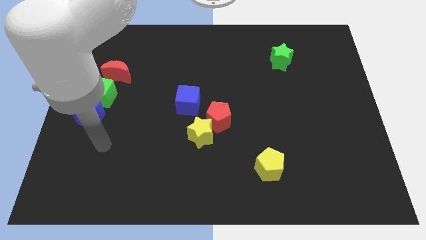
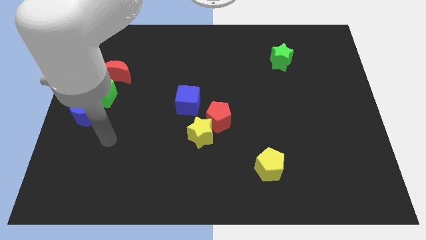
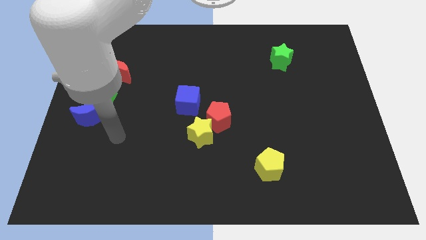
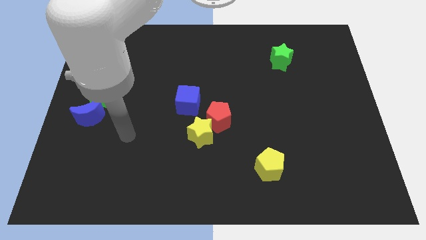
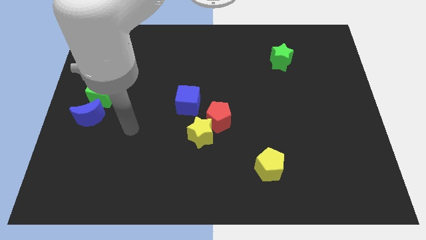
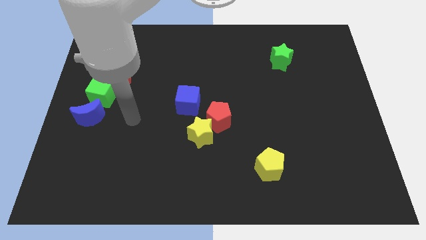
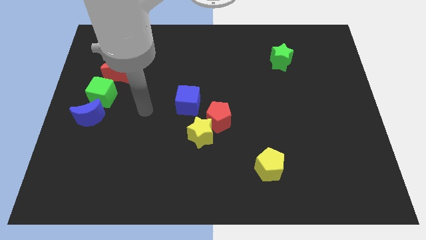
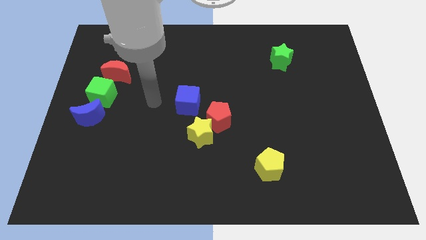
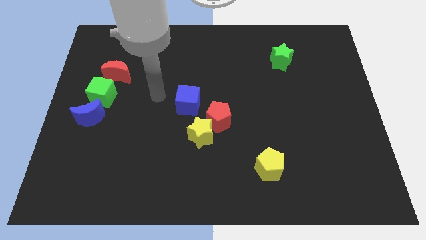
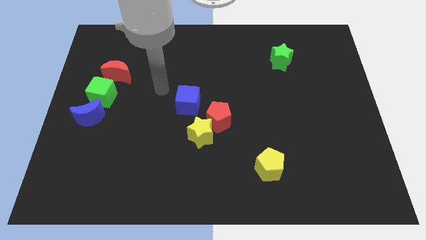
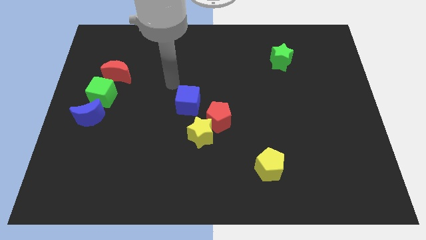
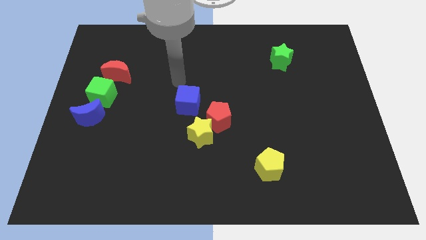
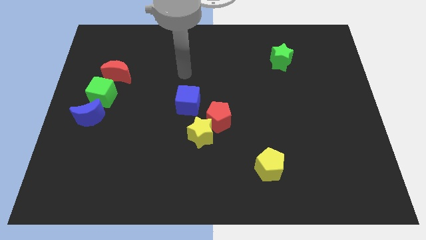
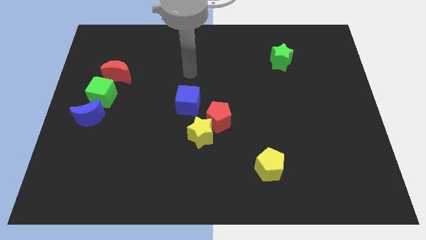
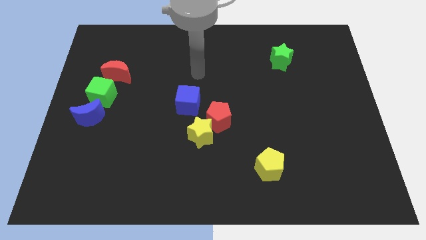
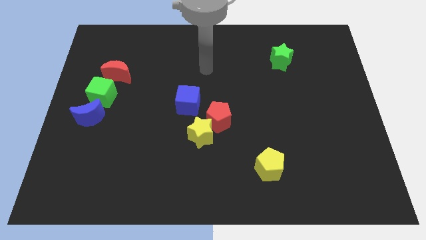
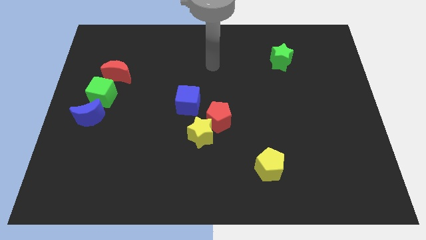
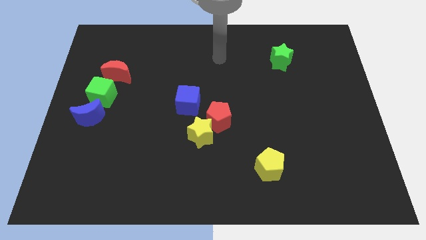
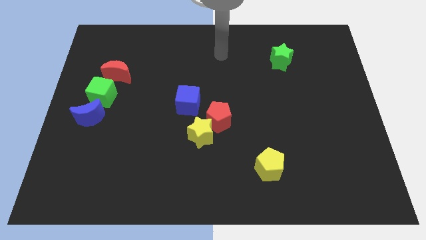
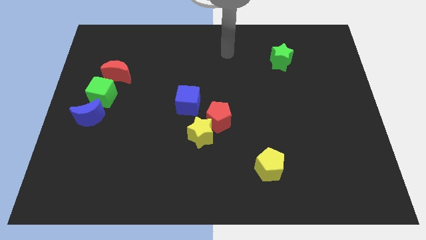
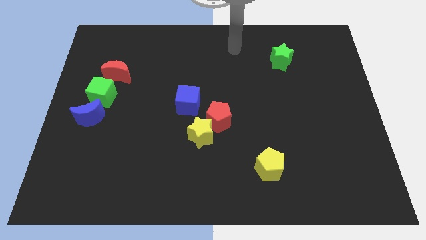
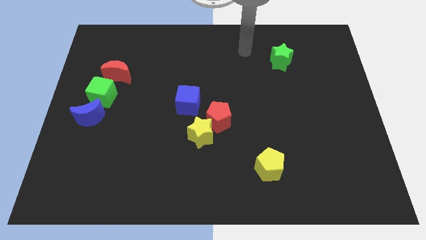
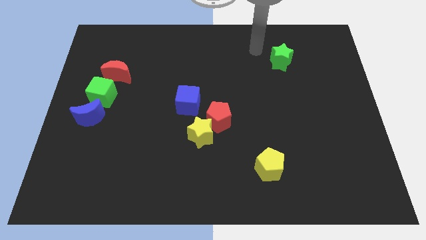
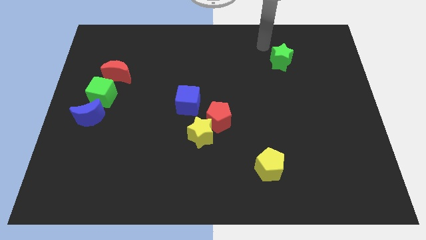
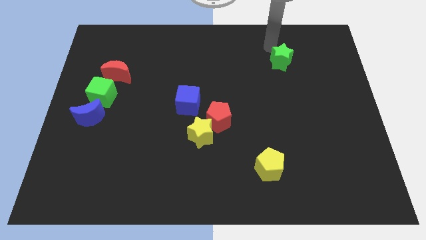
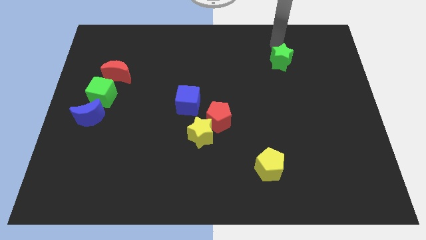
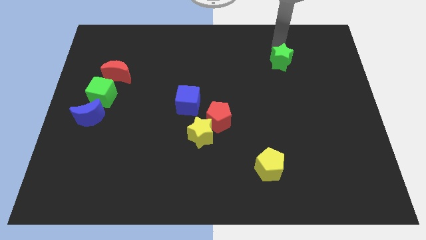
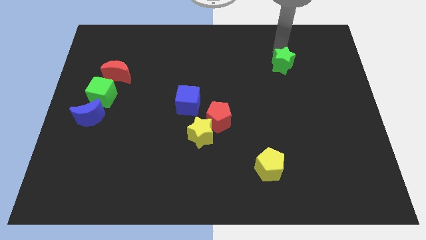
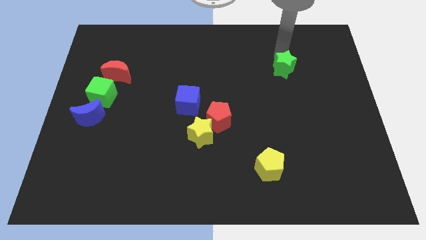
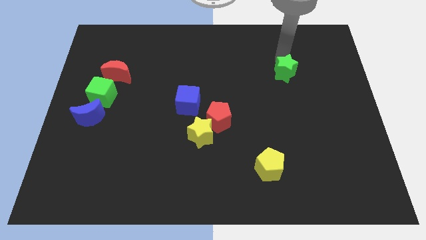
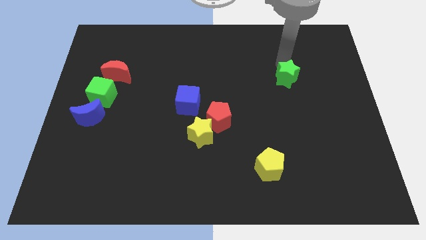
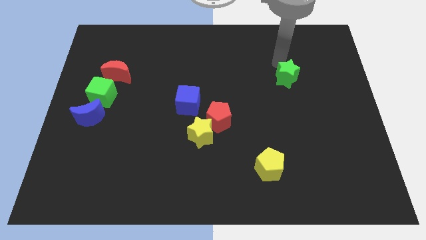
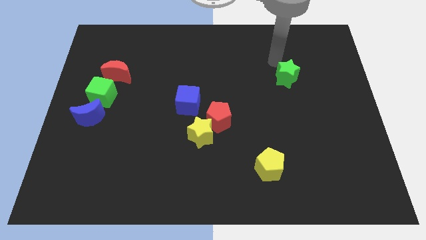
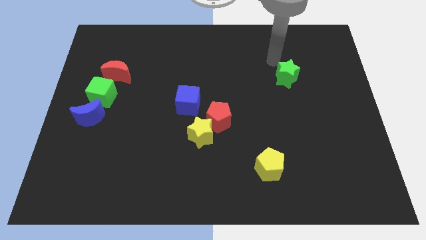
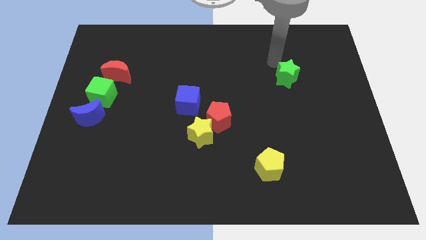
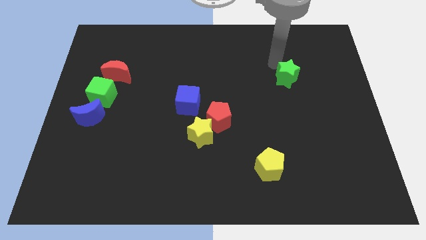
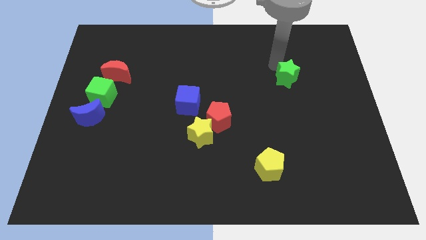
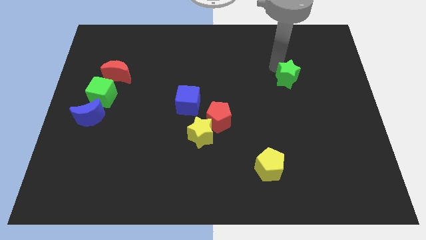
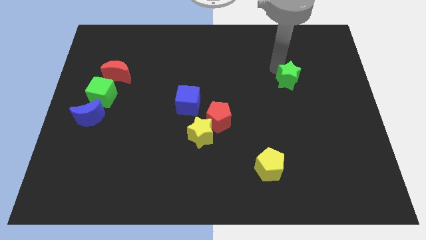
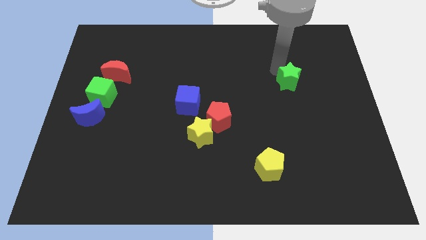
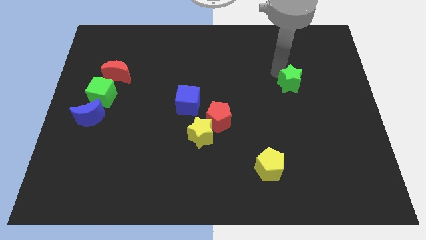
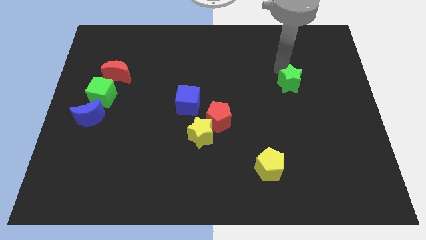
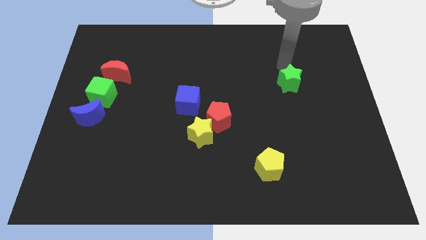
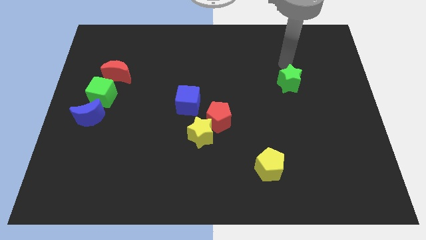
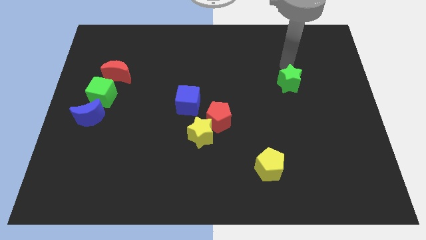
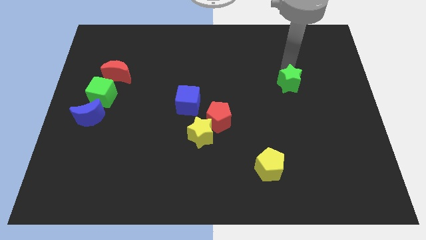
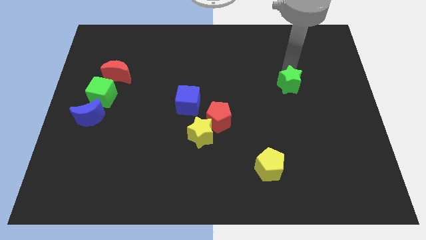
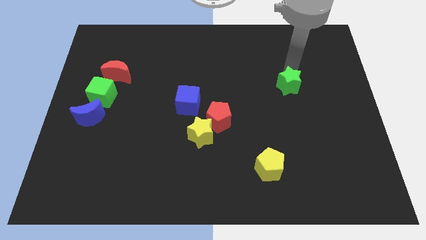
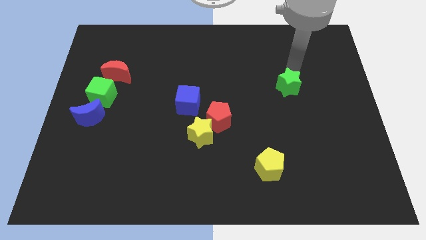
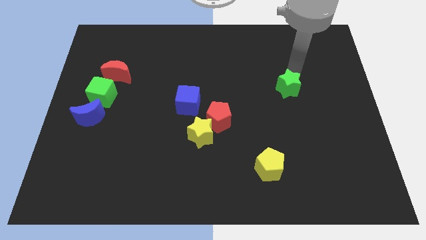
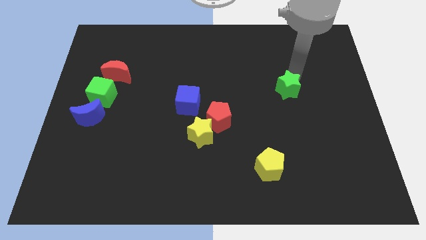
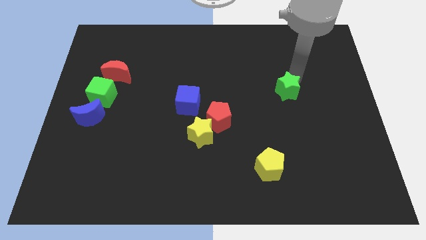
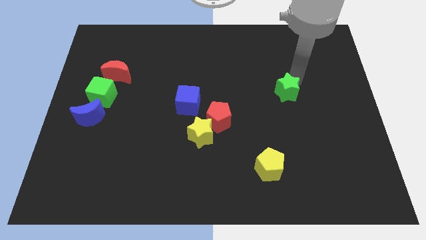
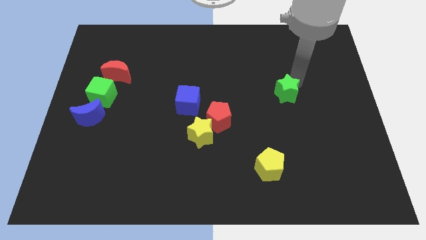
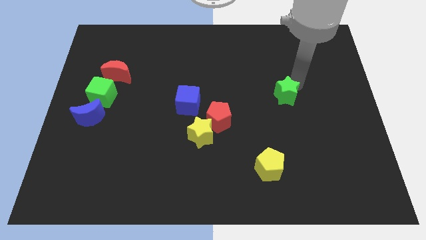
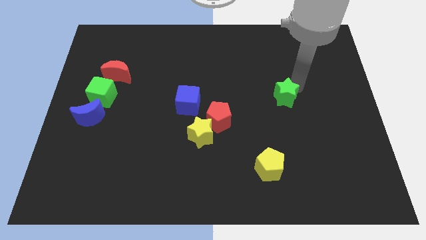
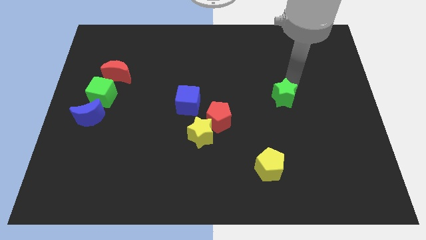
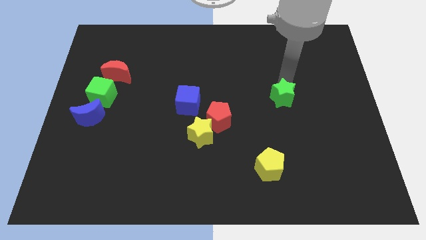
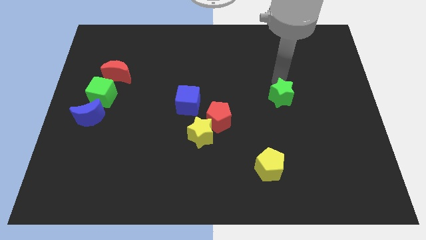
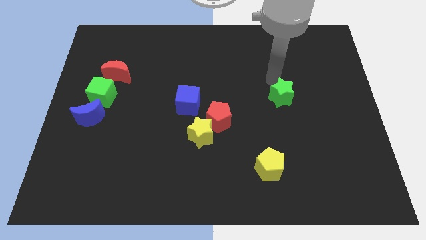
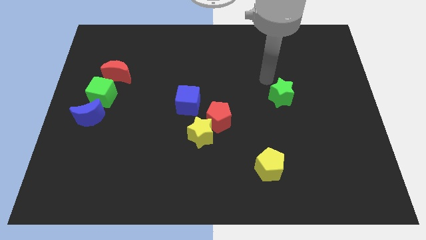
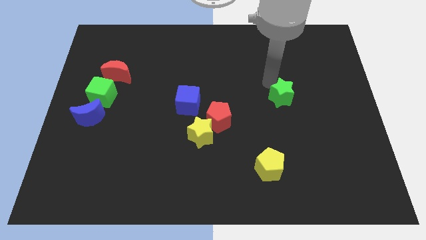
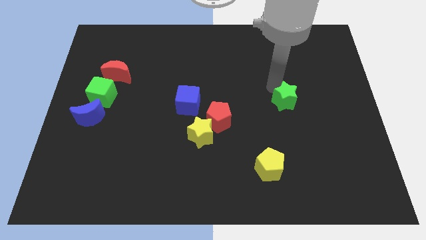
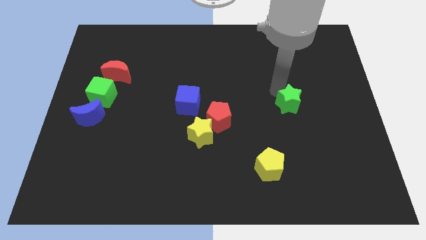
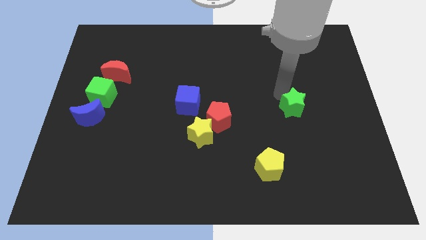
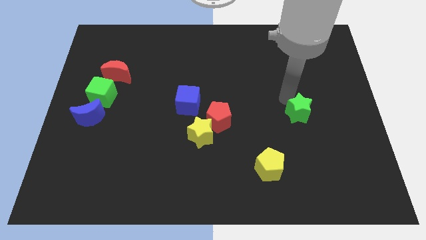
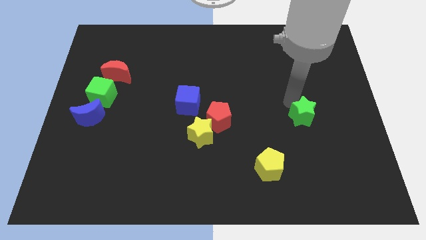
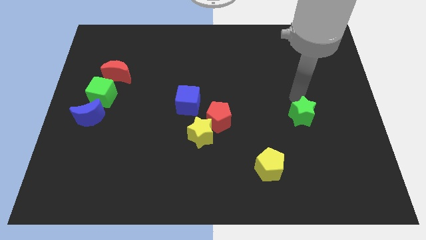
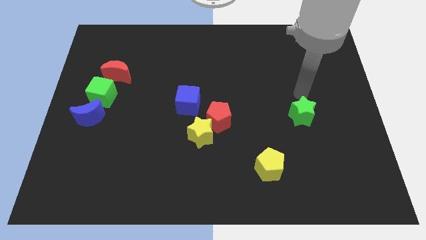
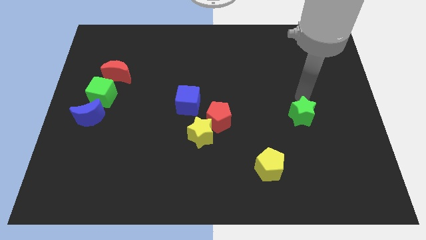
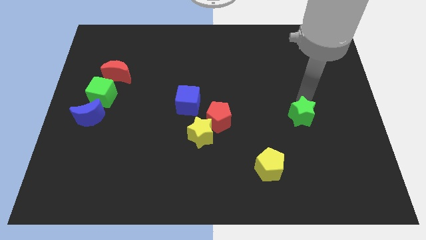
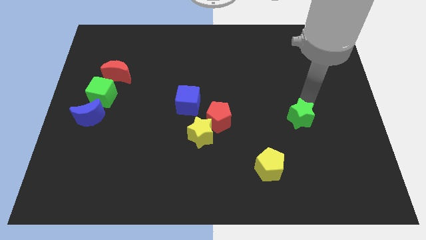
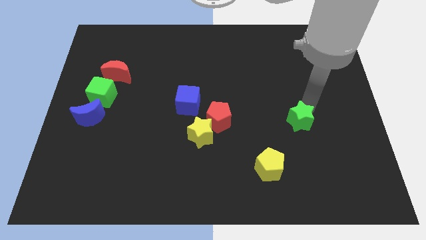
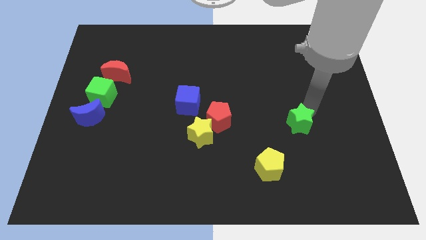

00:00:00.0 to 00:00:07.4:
push the green star downwards

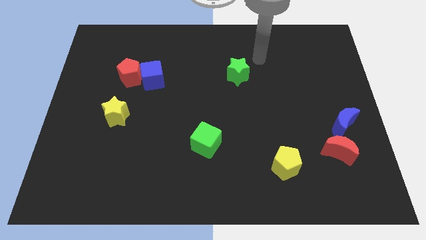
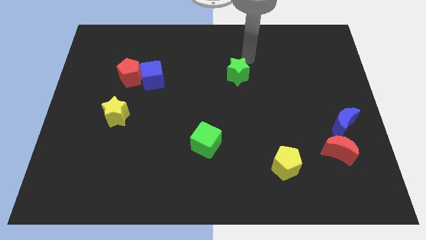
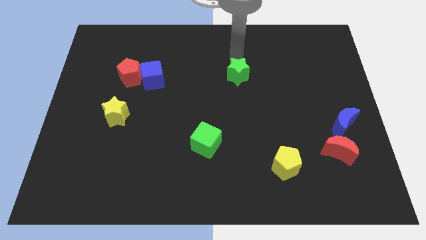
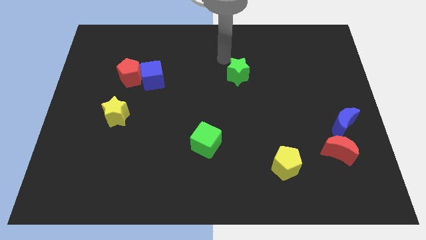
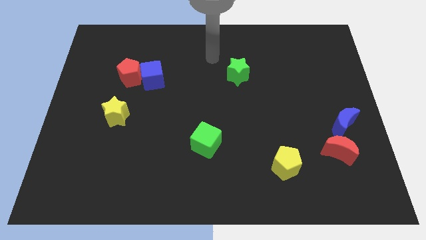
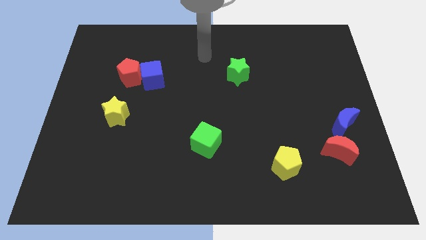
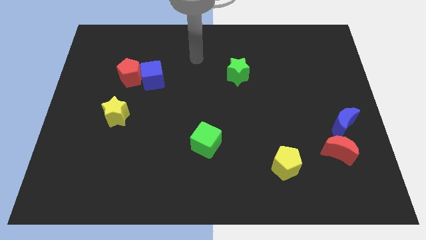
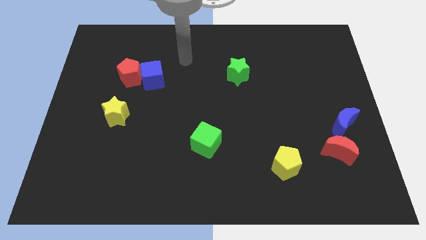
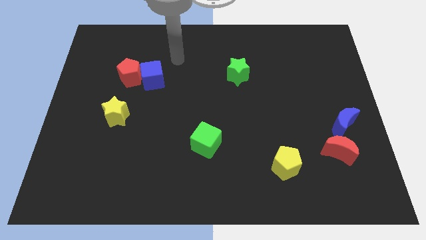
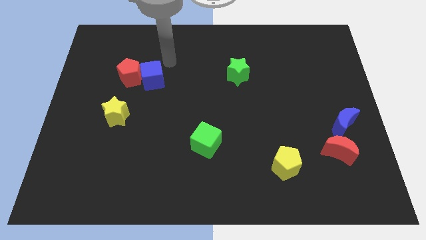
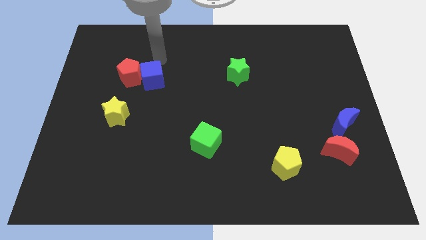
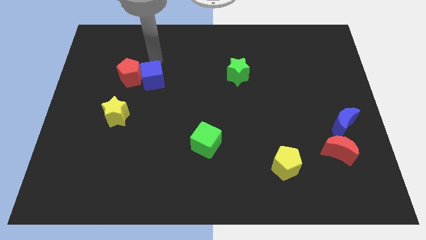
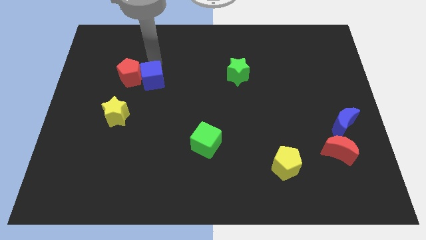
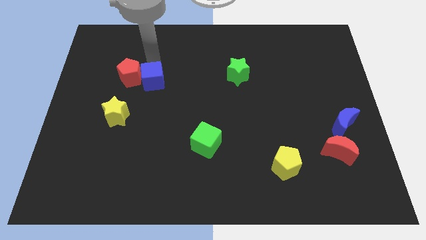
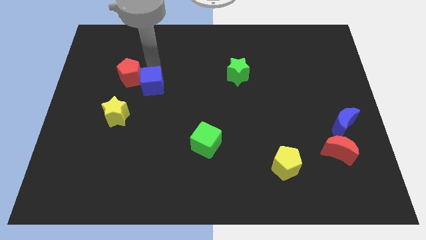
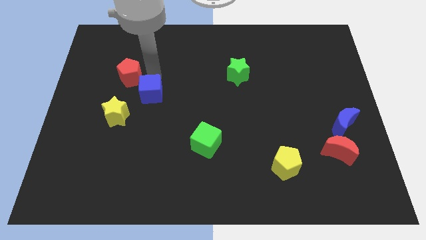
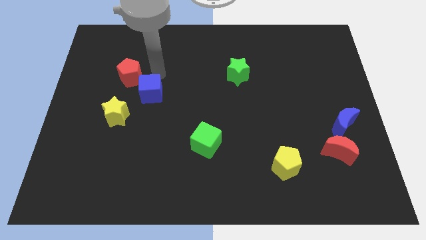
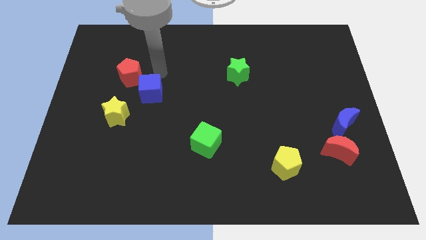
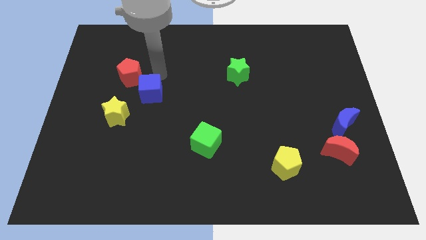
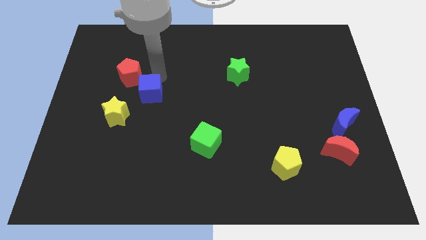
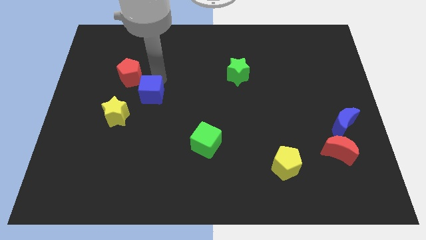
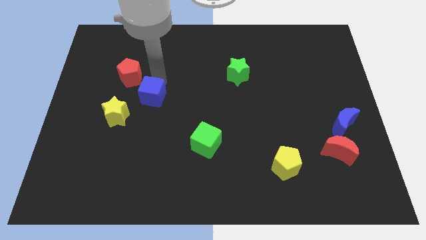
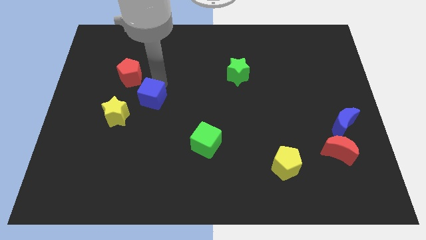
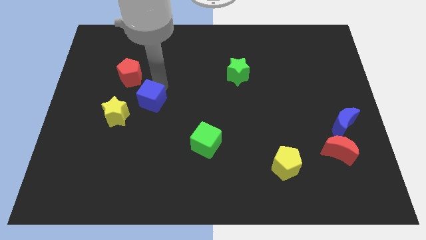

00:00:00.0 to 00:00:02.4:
move the blue cube downwards a little bit
